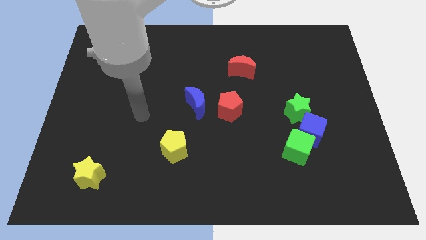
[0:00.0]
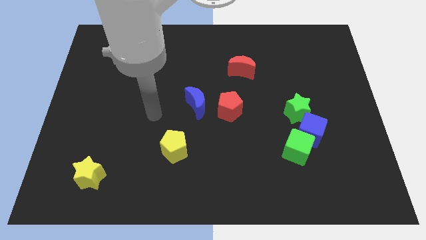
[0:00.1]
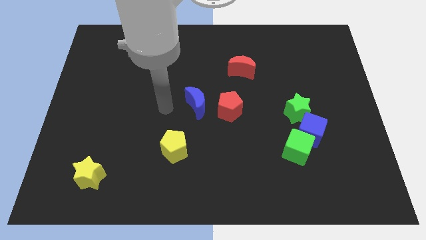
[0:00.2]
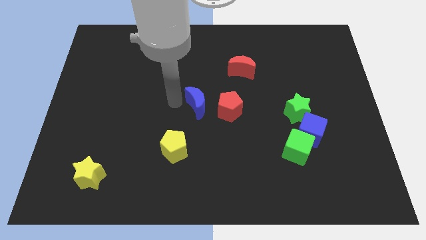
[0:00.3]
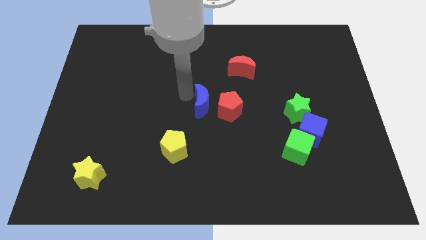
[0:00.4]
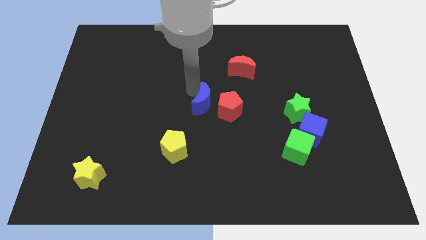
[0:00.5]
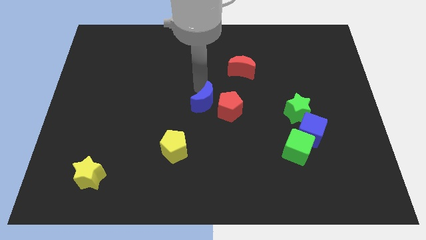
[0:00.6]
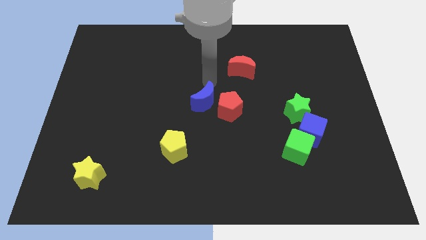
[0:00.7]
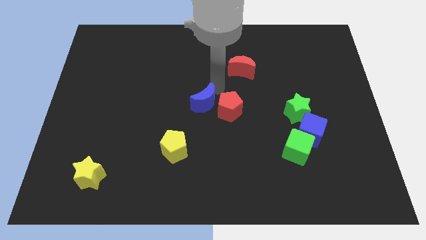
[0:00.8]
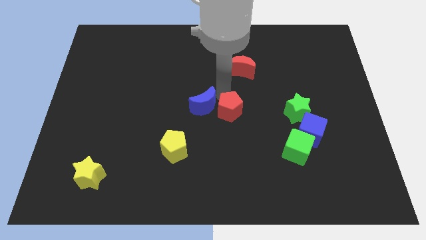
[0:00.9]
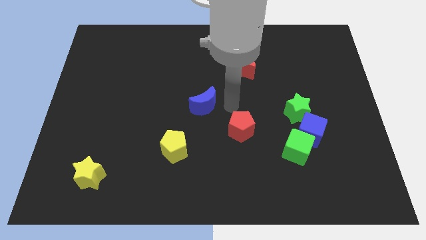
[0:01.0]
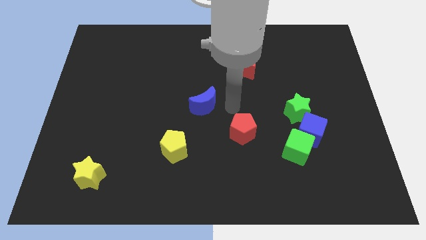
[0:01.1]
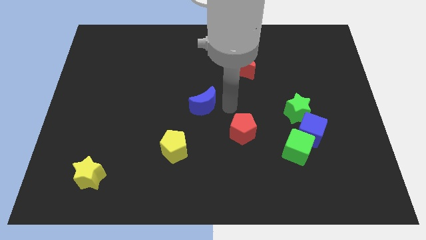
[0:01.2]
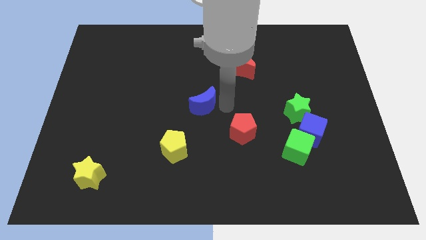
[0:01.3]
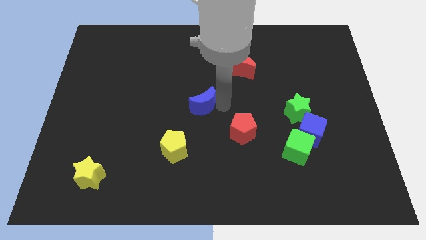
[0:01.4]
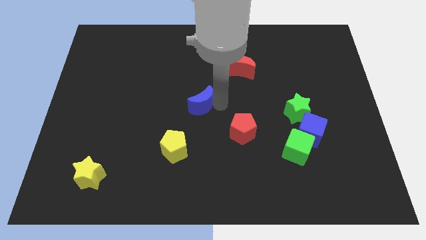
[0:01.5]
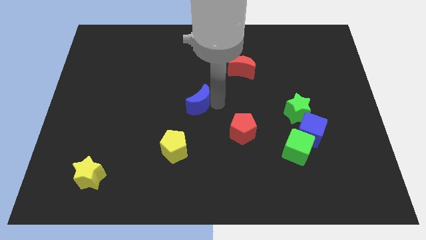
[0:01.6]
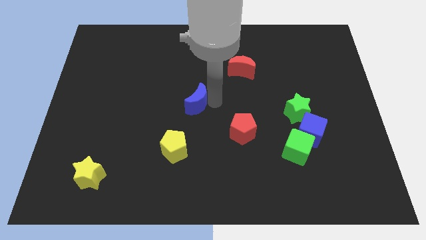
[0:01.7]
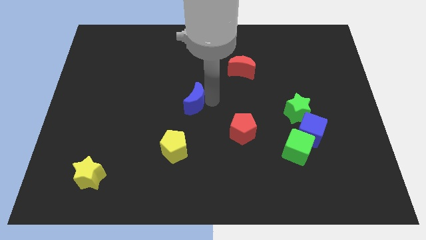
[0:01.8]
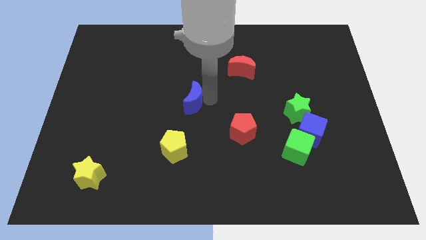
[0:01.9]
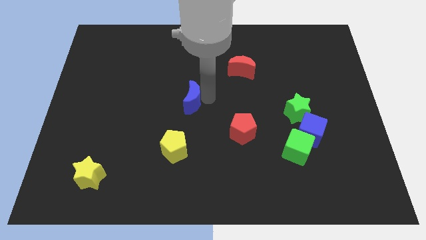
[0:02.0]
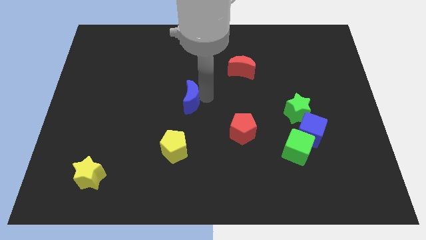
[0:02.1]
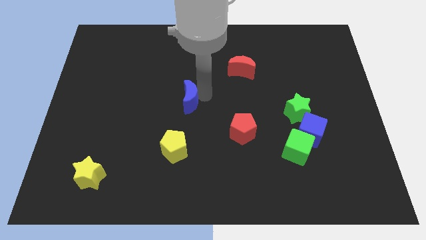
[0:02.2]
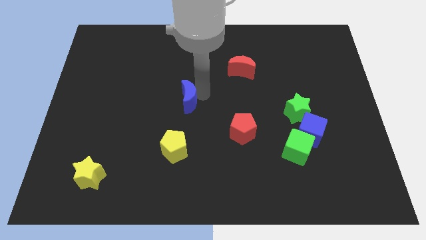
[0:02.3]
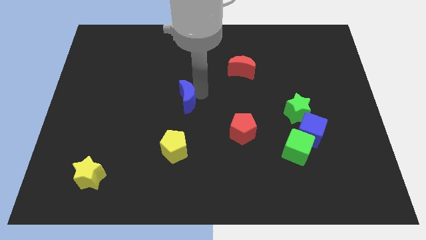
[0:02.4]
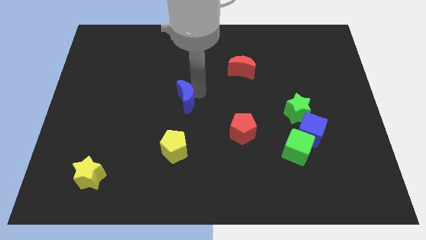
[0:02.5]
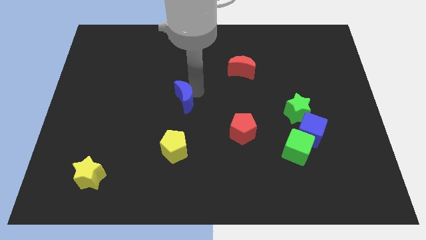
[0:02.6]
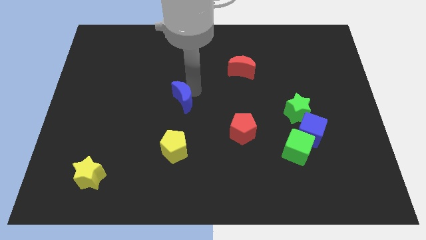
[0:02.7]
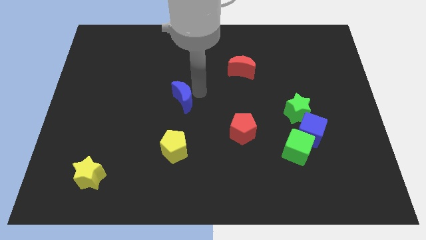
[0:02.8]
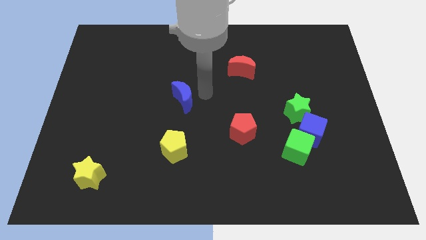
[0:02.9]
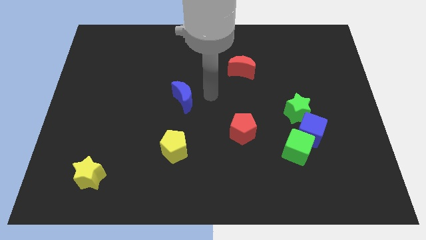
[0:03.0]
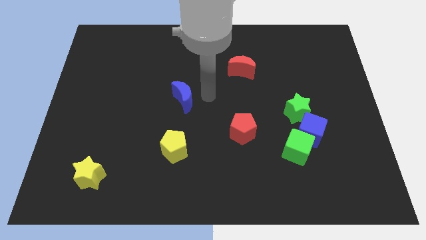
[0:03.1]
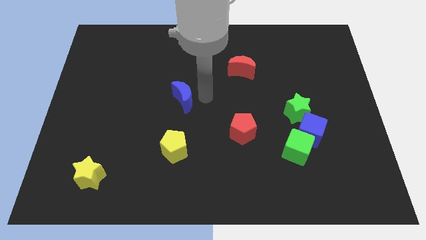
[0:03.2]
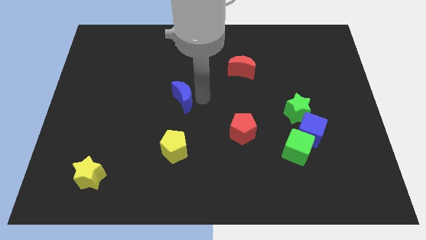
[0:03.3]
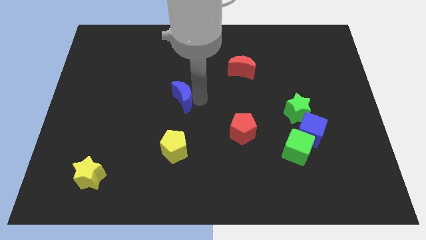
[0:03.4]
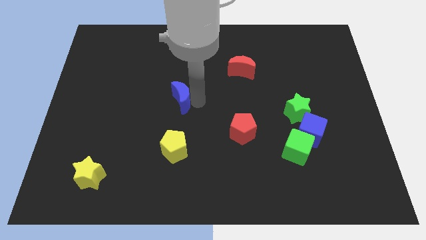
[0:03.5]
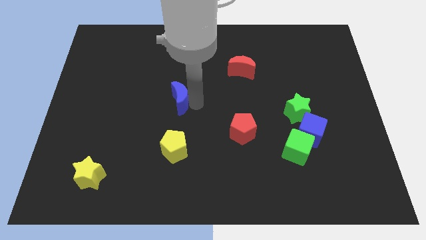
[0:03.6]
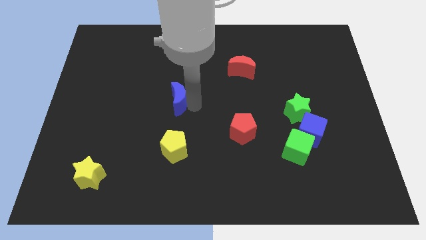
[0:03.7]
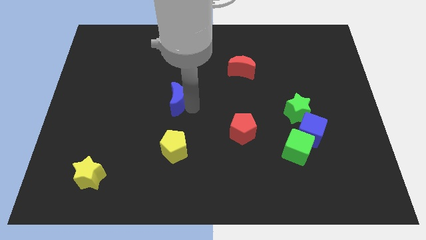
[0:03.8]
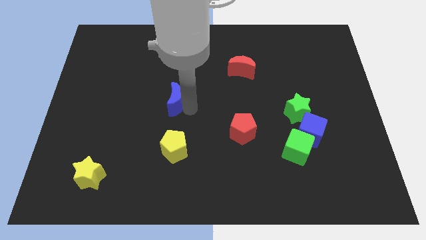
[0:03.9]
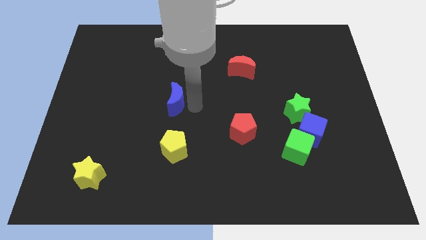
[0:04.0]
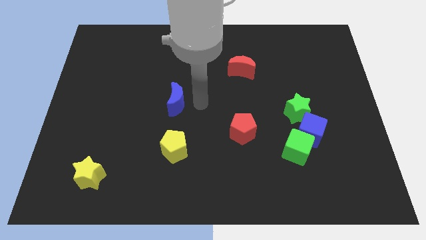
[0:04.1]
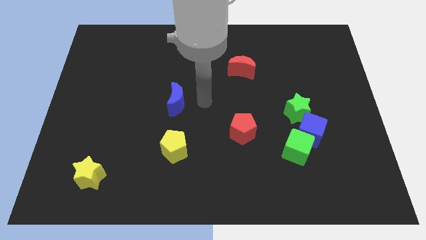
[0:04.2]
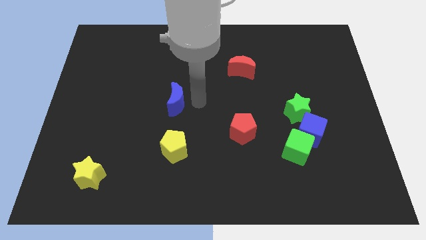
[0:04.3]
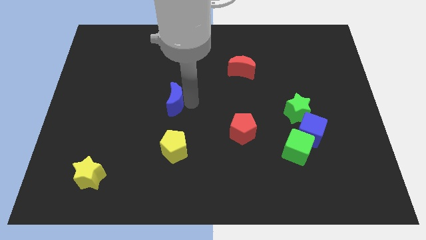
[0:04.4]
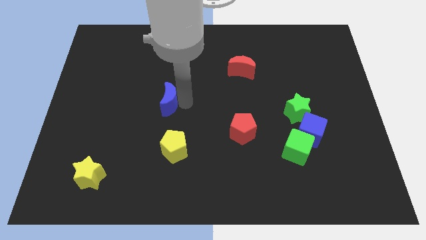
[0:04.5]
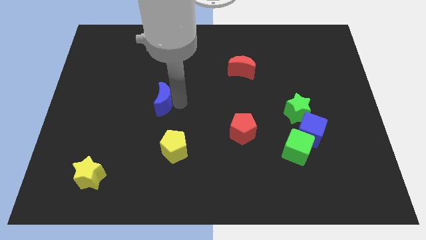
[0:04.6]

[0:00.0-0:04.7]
slightly move the blue moon left

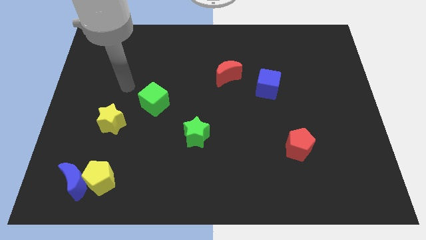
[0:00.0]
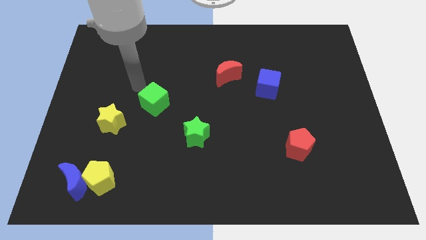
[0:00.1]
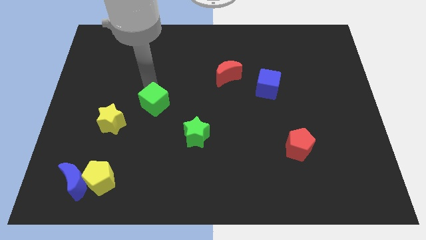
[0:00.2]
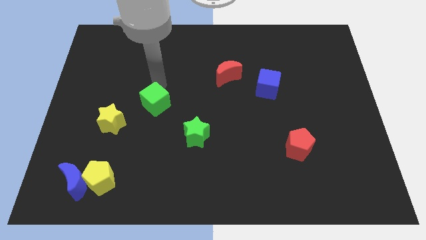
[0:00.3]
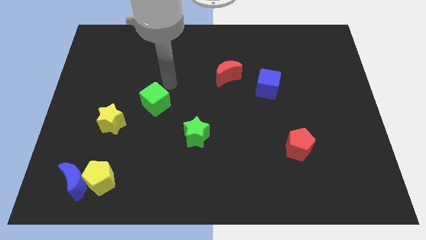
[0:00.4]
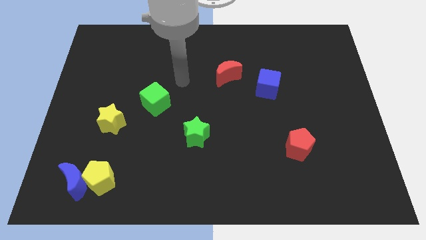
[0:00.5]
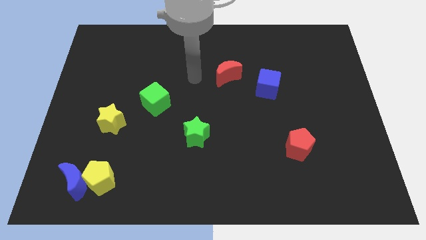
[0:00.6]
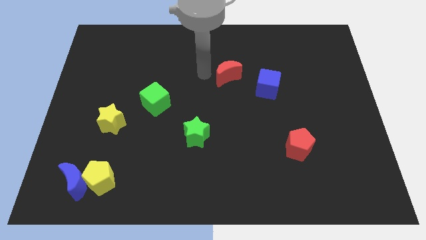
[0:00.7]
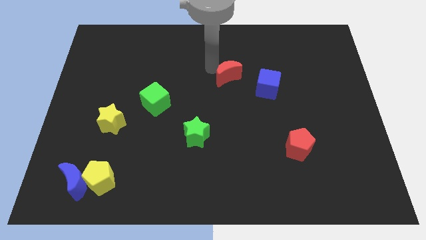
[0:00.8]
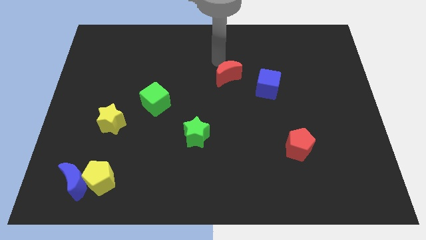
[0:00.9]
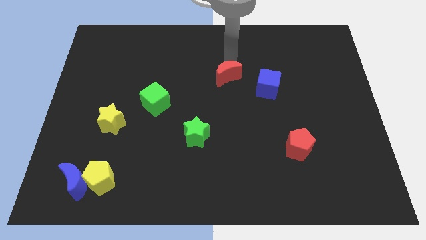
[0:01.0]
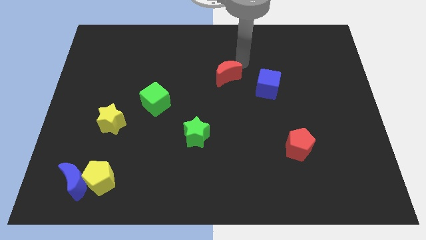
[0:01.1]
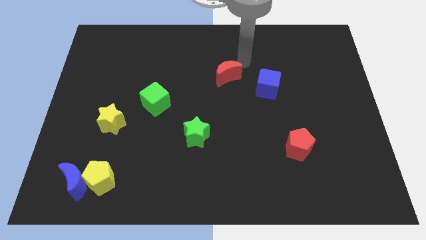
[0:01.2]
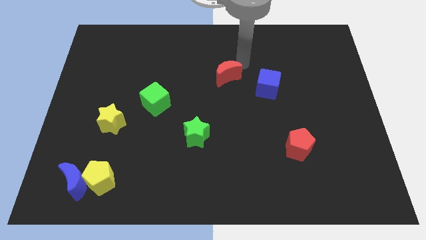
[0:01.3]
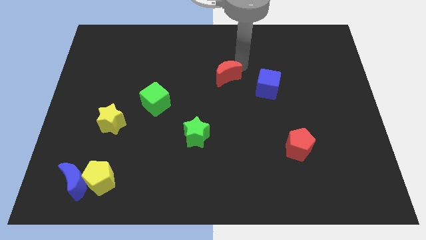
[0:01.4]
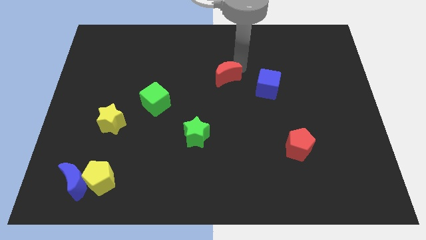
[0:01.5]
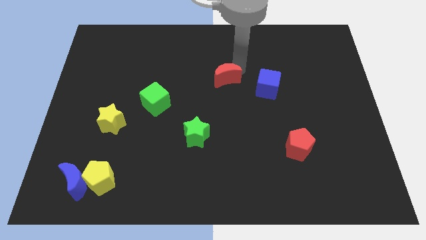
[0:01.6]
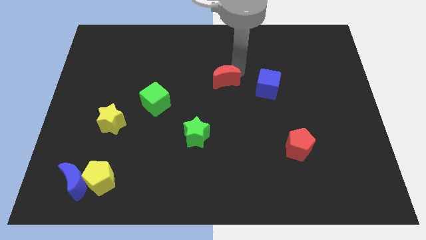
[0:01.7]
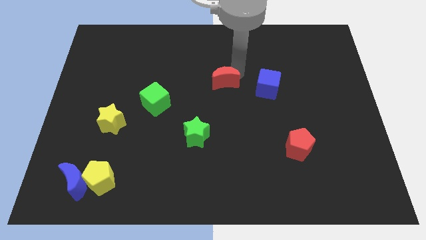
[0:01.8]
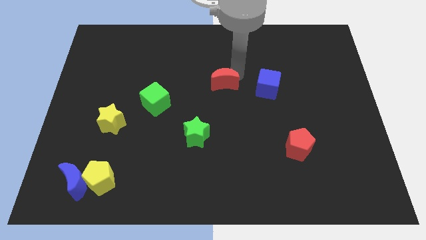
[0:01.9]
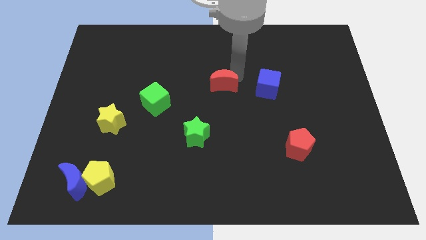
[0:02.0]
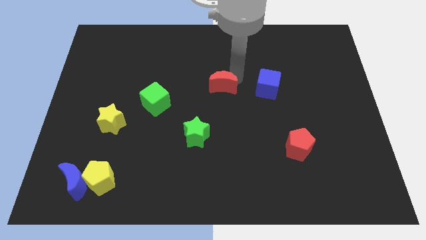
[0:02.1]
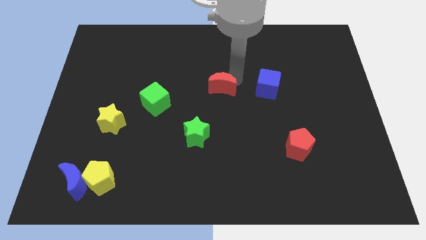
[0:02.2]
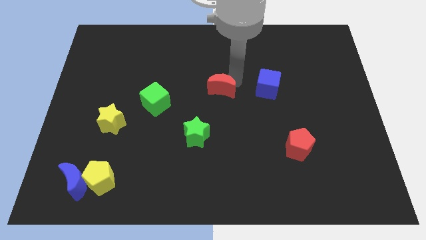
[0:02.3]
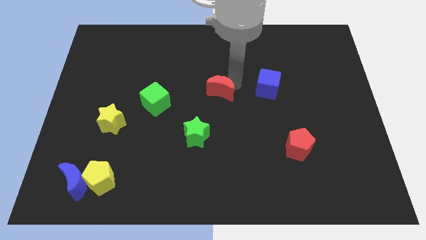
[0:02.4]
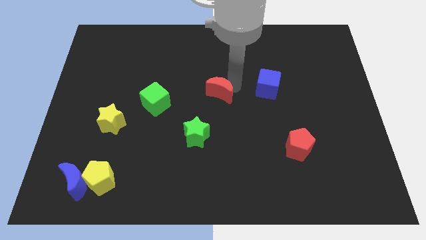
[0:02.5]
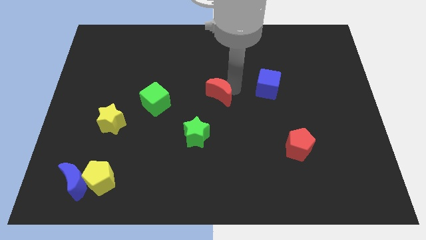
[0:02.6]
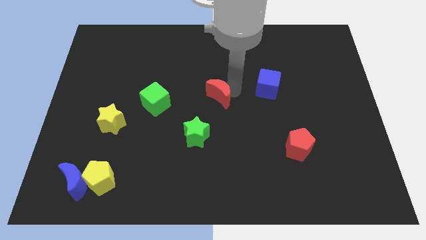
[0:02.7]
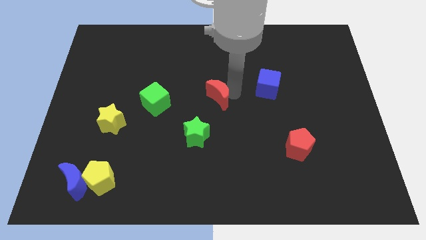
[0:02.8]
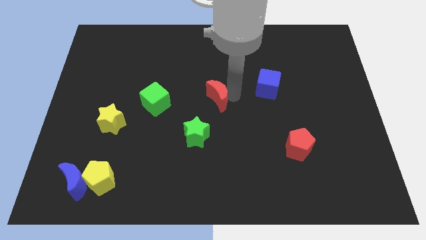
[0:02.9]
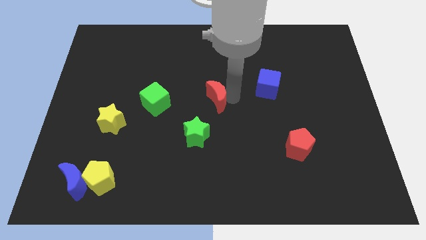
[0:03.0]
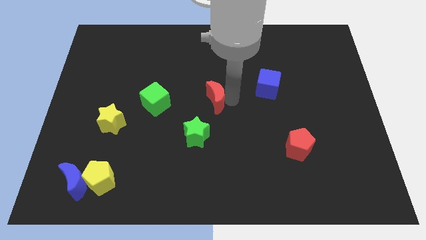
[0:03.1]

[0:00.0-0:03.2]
move the red moon a little down and then to the left

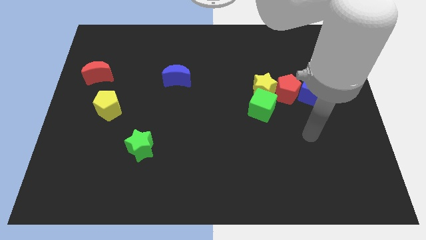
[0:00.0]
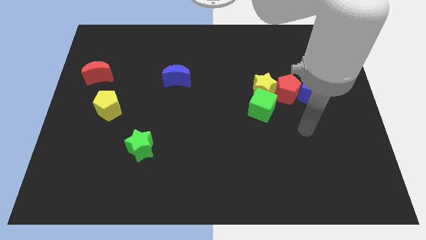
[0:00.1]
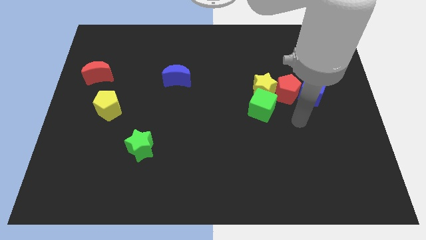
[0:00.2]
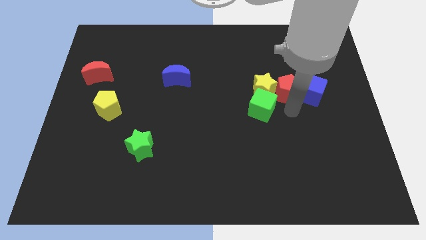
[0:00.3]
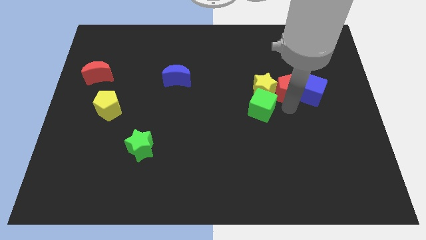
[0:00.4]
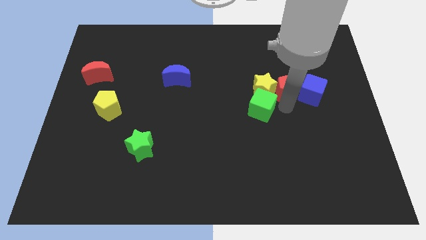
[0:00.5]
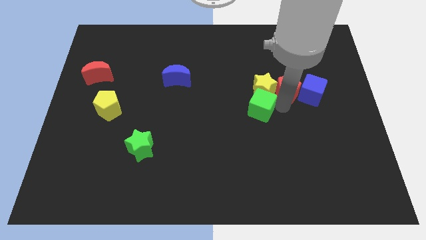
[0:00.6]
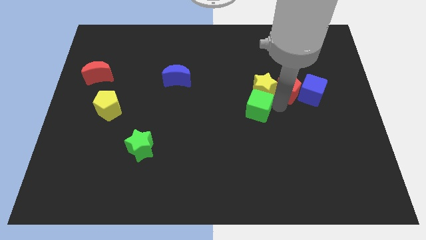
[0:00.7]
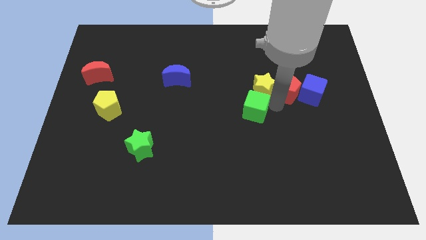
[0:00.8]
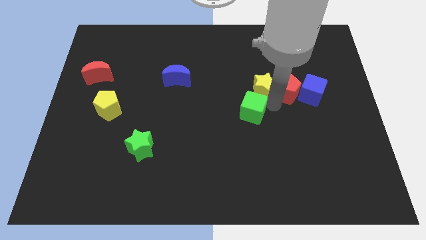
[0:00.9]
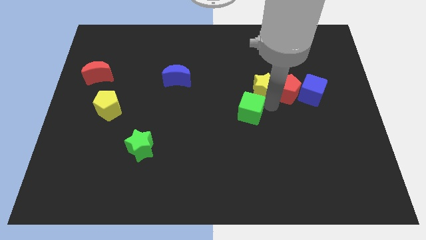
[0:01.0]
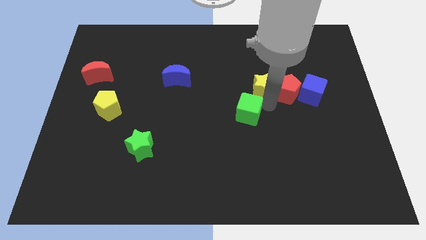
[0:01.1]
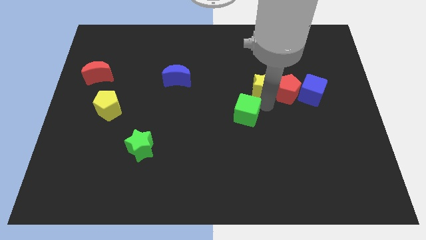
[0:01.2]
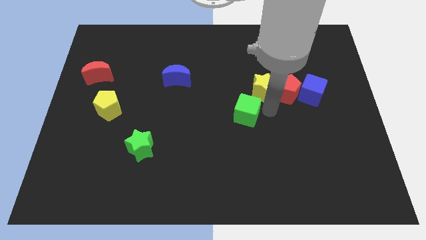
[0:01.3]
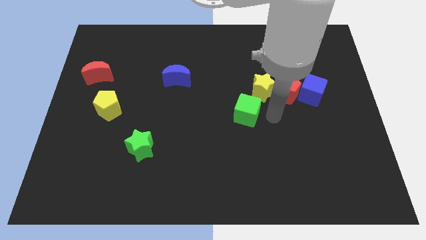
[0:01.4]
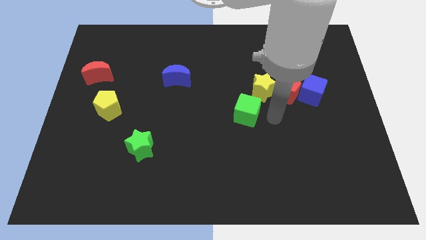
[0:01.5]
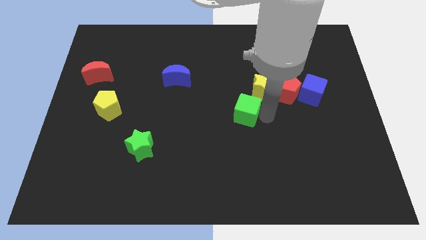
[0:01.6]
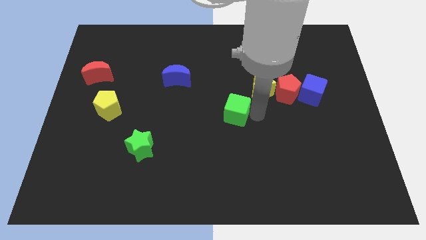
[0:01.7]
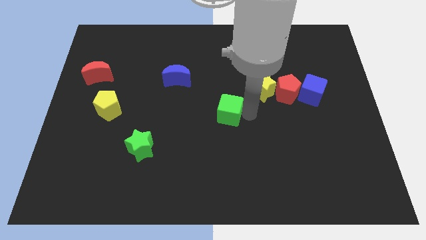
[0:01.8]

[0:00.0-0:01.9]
slide the green cube to the left a little
